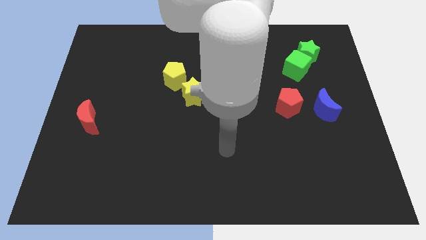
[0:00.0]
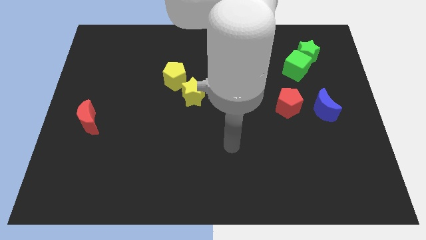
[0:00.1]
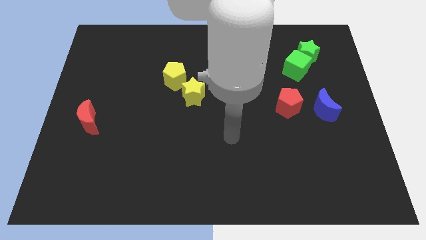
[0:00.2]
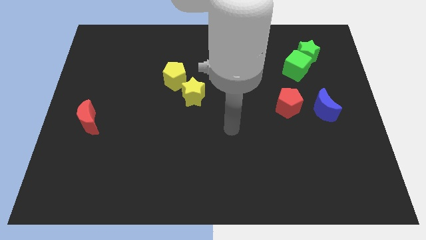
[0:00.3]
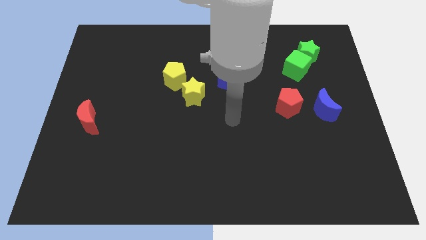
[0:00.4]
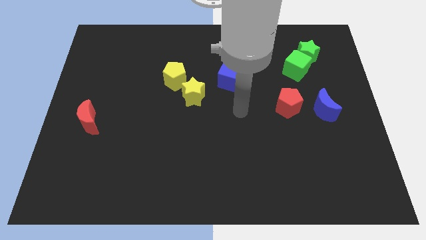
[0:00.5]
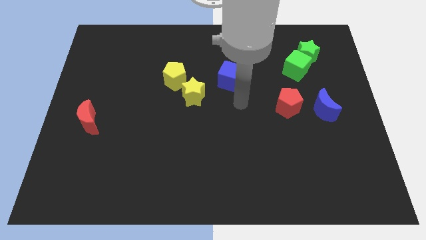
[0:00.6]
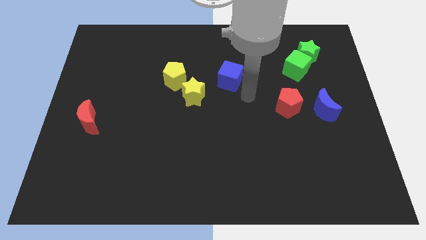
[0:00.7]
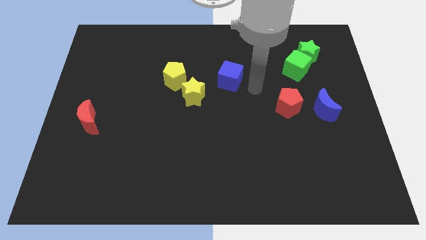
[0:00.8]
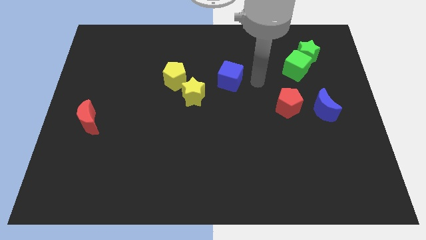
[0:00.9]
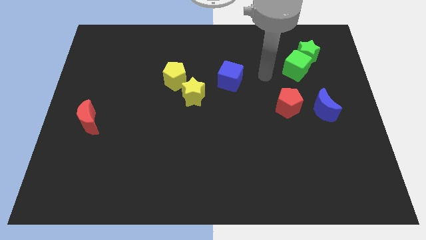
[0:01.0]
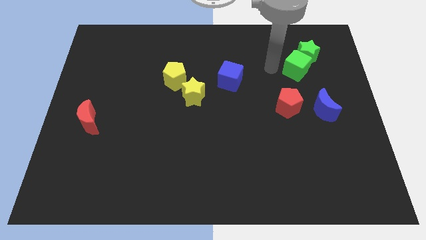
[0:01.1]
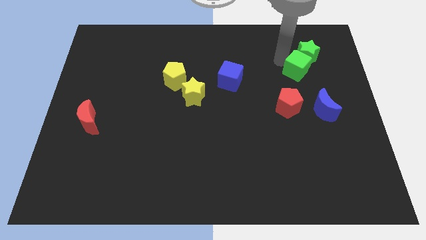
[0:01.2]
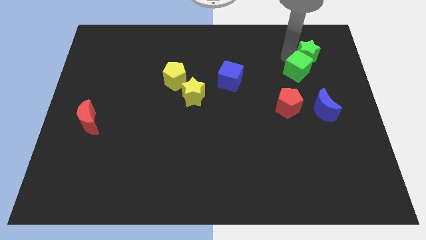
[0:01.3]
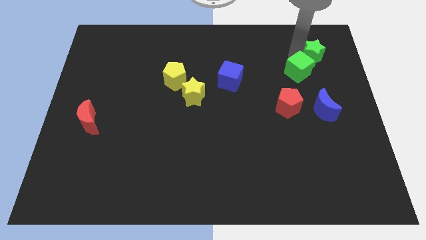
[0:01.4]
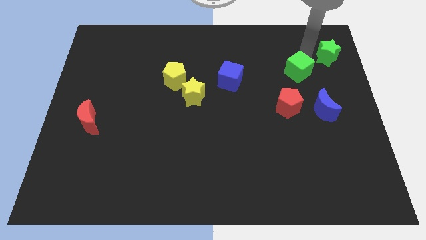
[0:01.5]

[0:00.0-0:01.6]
move the green cube away from the green star

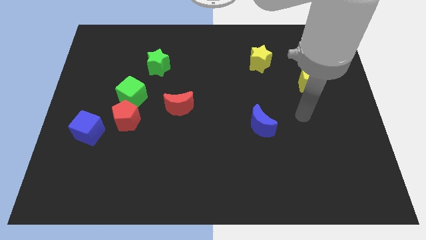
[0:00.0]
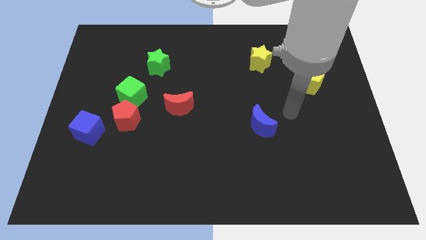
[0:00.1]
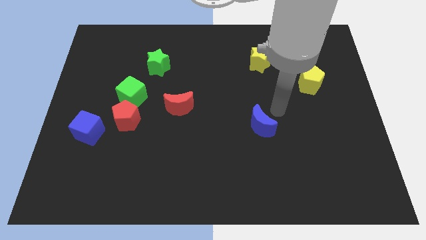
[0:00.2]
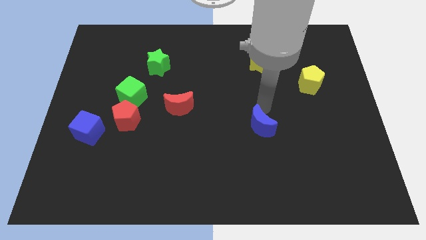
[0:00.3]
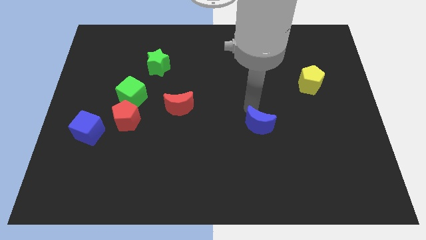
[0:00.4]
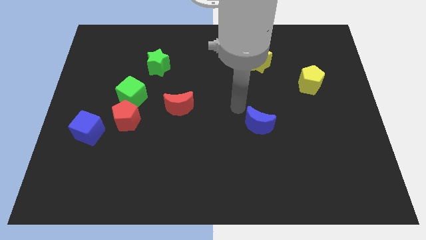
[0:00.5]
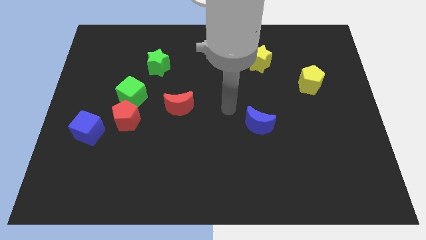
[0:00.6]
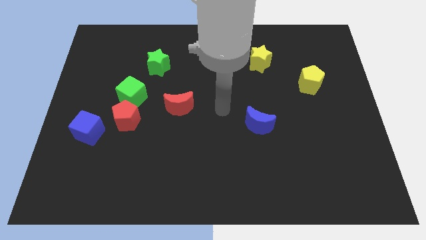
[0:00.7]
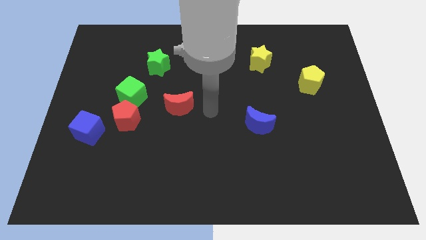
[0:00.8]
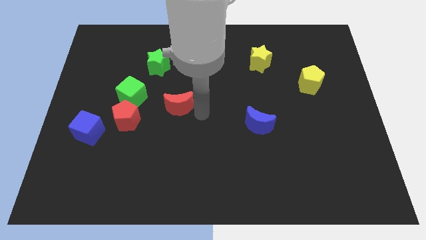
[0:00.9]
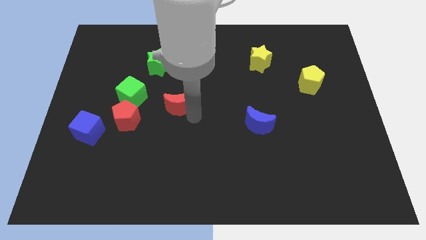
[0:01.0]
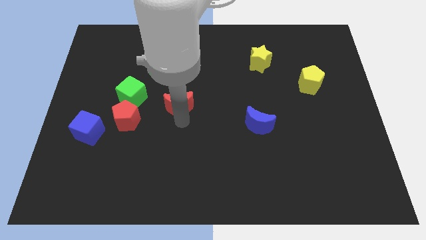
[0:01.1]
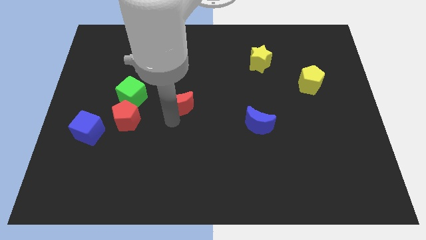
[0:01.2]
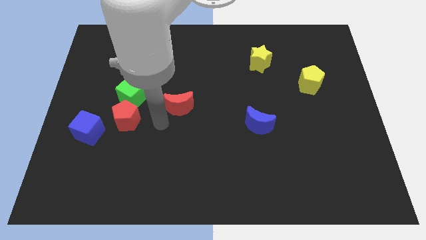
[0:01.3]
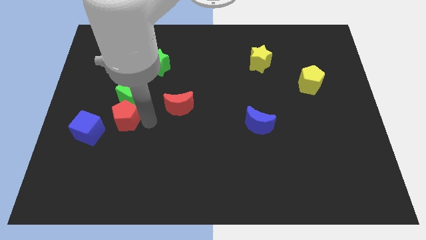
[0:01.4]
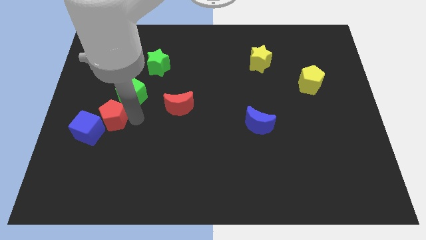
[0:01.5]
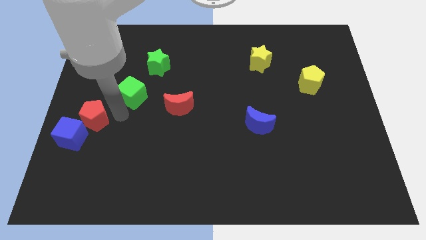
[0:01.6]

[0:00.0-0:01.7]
move the green cube away from the red pentagon

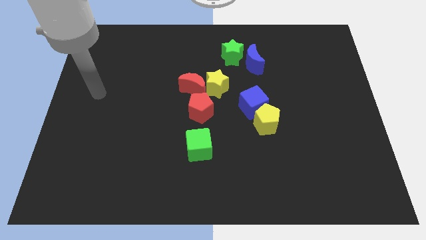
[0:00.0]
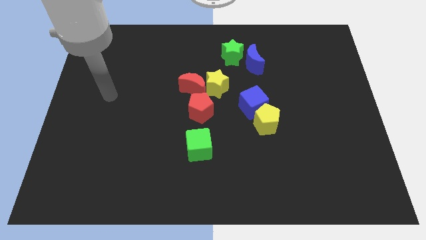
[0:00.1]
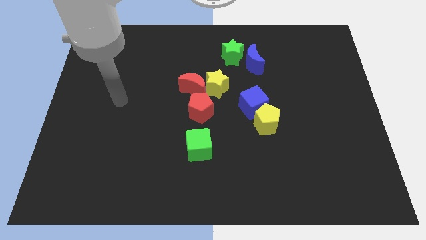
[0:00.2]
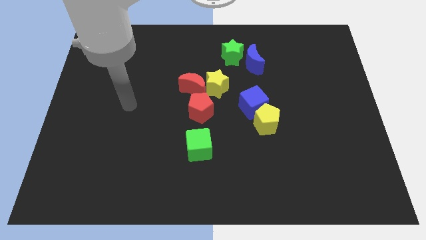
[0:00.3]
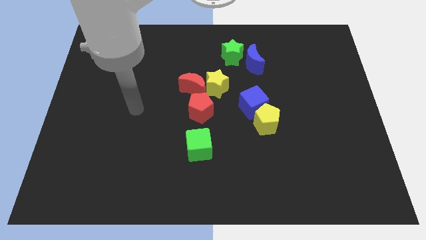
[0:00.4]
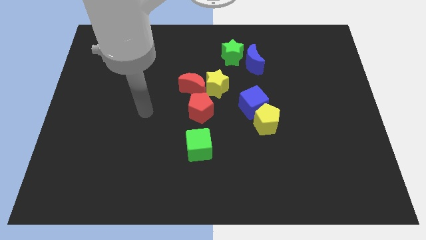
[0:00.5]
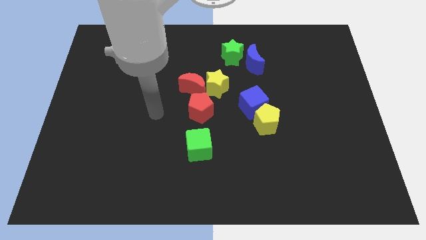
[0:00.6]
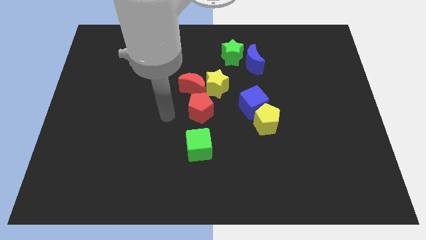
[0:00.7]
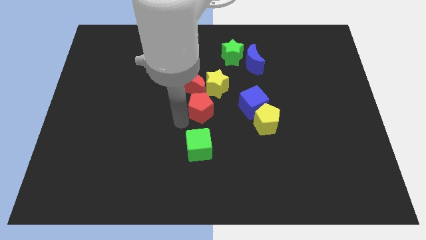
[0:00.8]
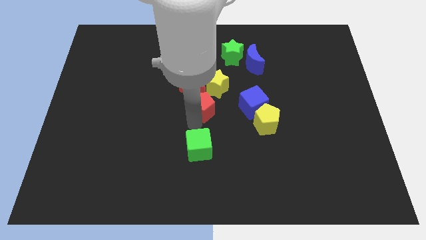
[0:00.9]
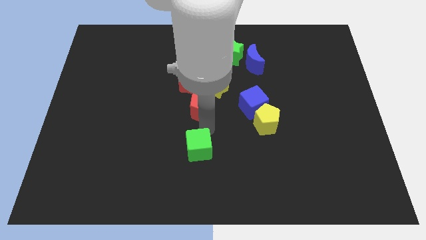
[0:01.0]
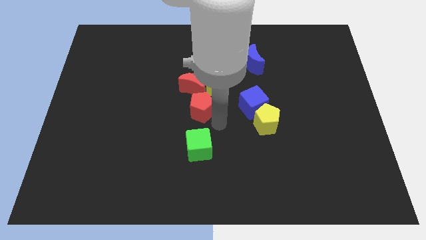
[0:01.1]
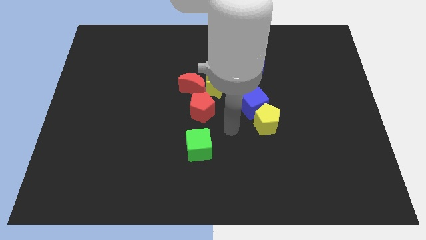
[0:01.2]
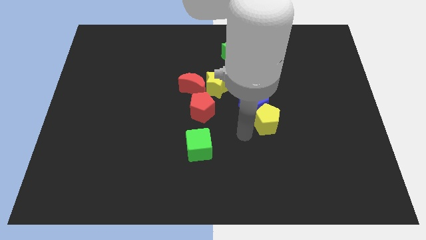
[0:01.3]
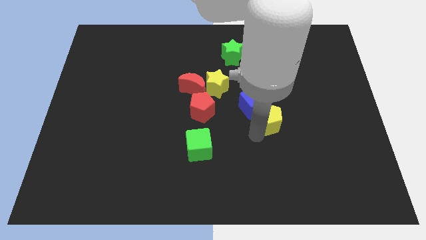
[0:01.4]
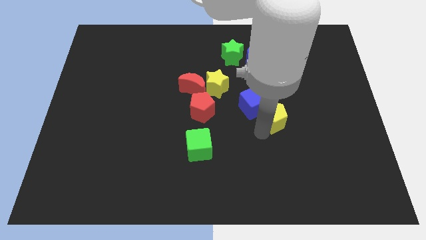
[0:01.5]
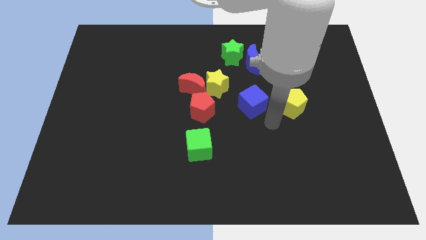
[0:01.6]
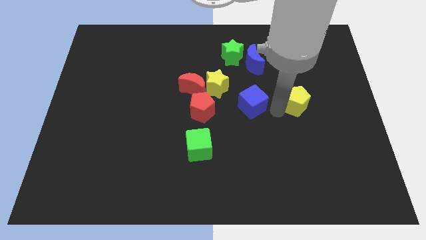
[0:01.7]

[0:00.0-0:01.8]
move the blue cube away from the yellow pentagon

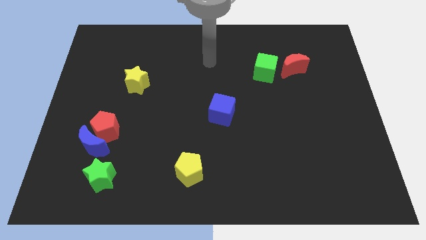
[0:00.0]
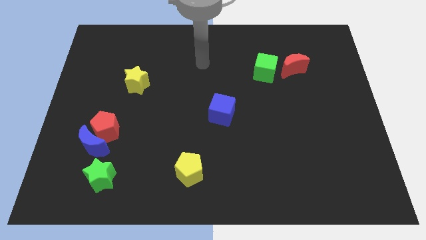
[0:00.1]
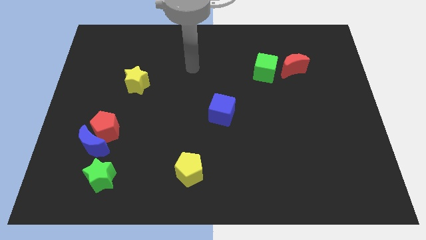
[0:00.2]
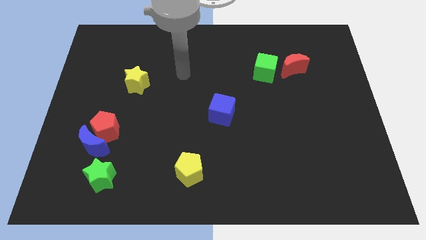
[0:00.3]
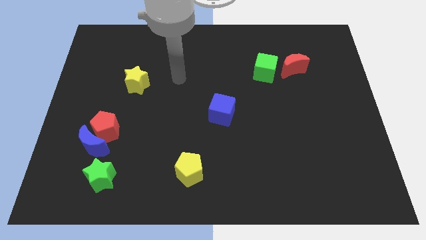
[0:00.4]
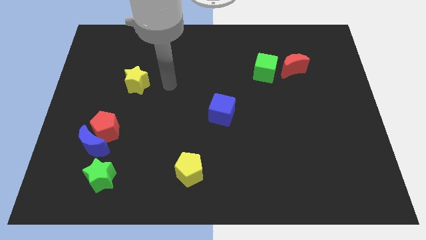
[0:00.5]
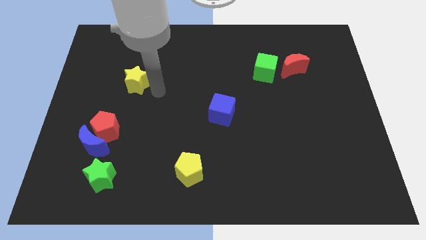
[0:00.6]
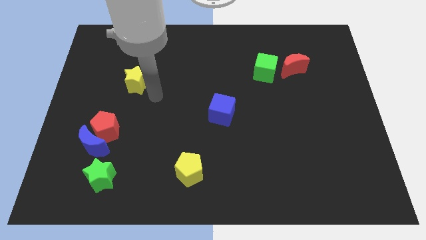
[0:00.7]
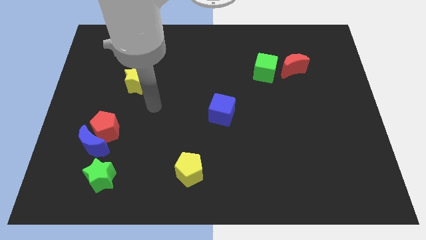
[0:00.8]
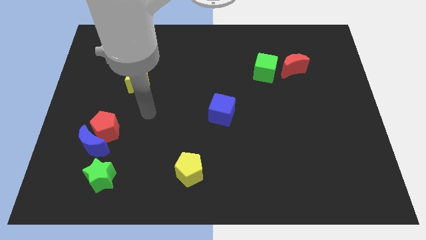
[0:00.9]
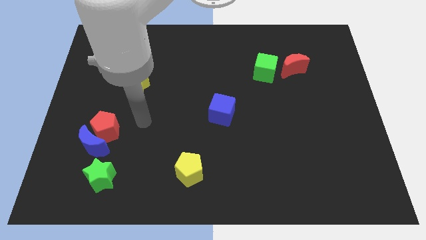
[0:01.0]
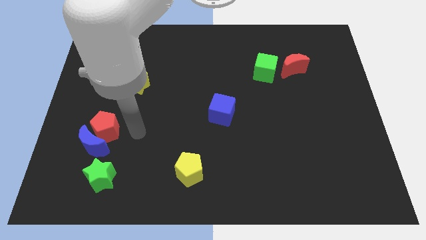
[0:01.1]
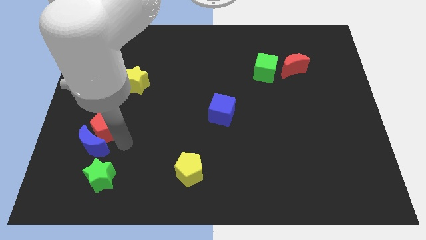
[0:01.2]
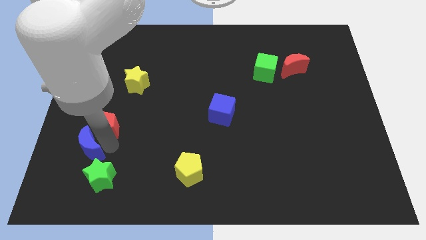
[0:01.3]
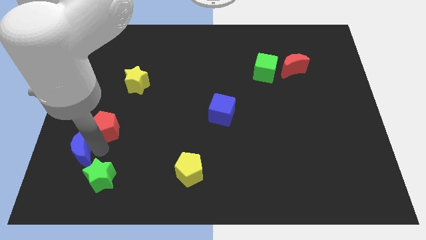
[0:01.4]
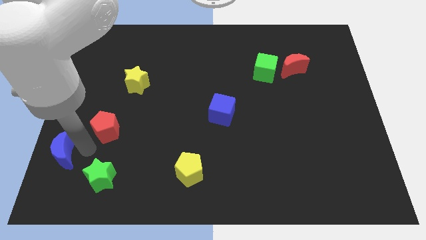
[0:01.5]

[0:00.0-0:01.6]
pull the red pentagon apart from the blue moon

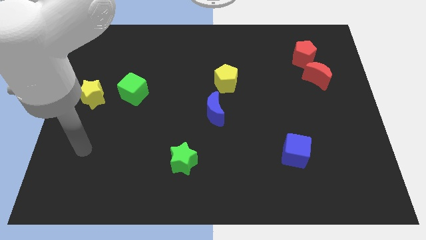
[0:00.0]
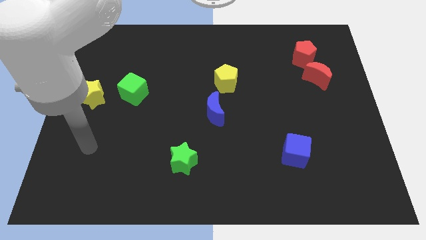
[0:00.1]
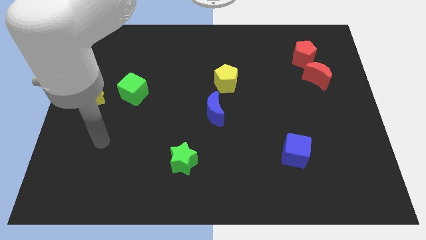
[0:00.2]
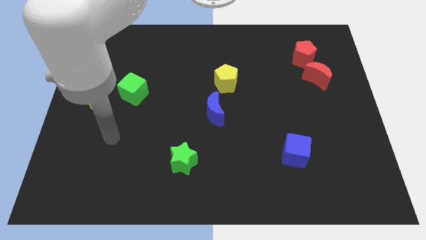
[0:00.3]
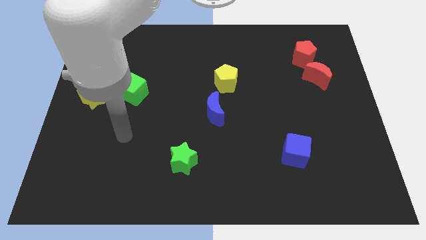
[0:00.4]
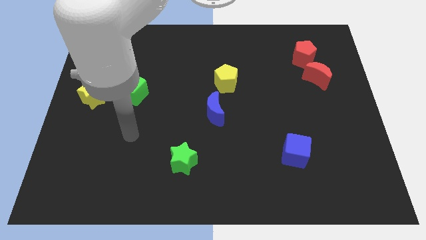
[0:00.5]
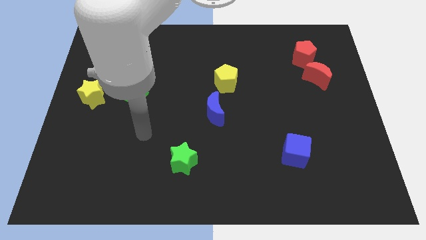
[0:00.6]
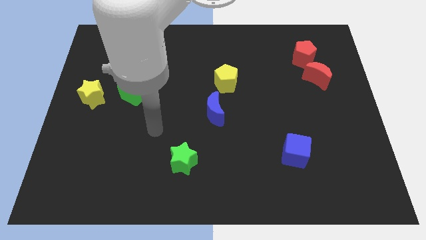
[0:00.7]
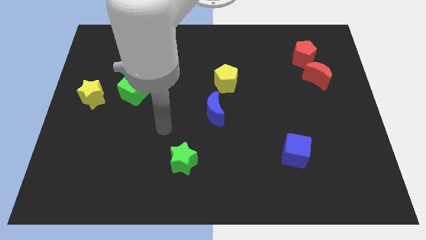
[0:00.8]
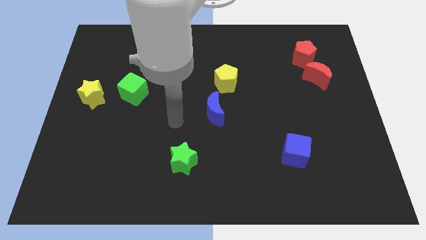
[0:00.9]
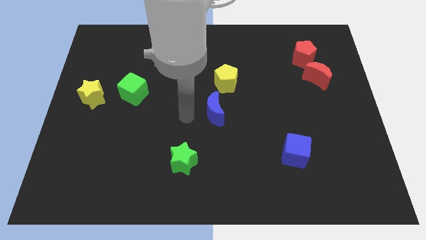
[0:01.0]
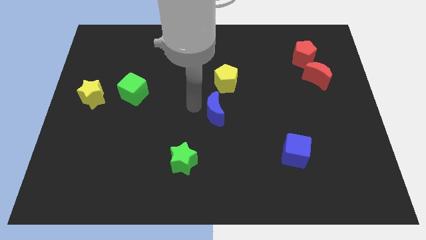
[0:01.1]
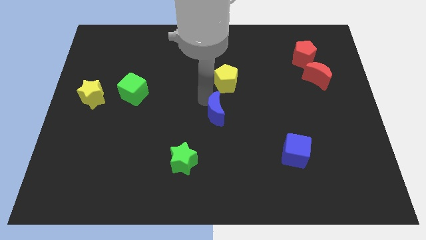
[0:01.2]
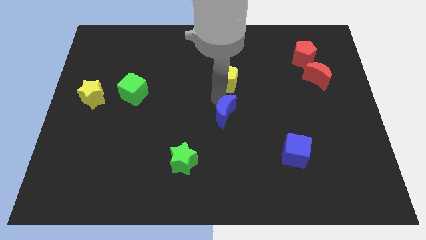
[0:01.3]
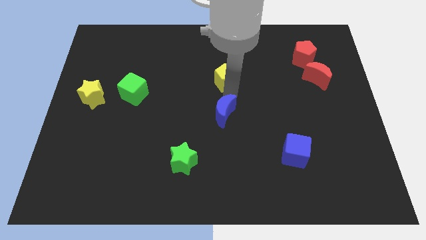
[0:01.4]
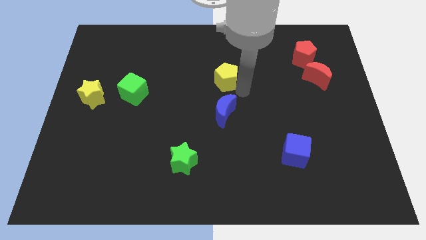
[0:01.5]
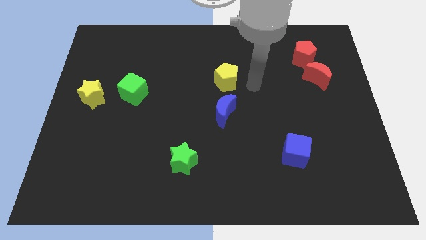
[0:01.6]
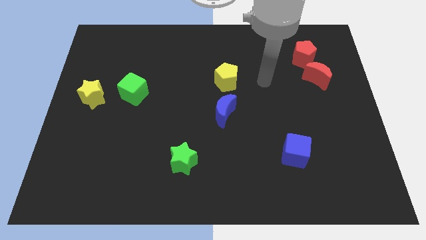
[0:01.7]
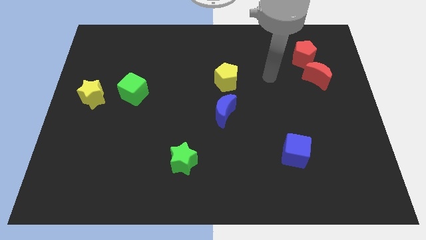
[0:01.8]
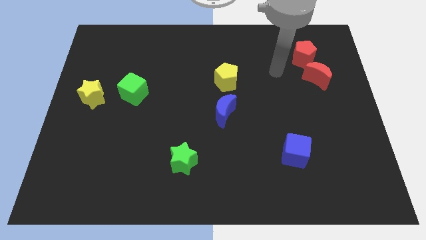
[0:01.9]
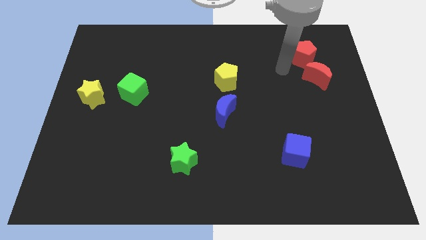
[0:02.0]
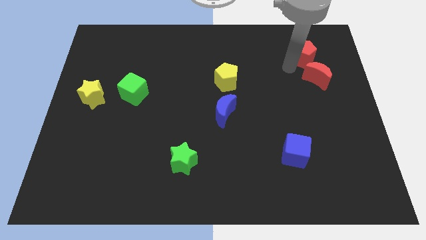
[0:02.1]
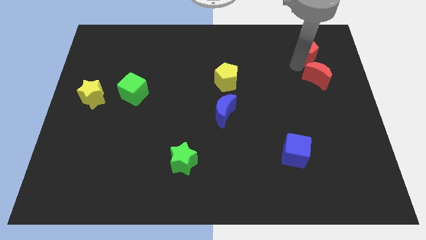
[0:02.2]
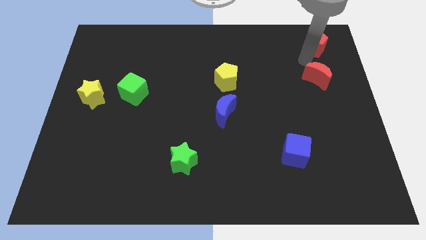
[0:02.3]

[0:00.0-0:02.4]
separate the red moon from the red pentagon

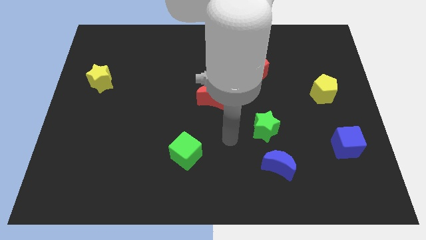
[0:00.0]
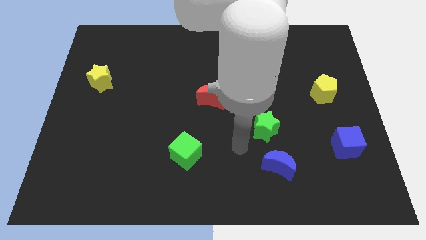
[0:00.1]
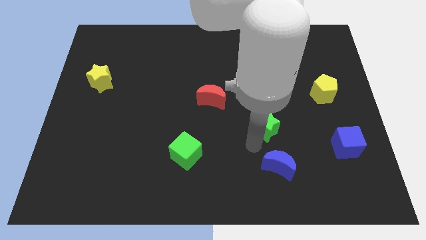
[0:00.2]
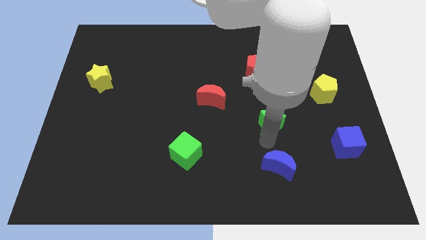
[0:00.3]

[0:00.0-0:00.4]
separate the blue moon from the green star
